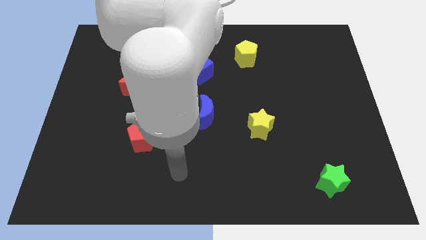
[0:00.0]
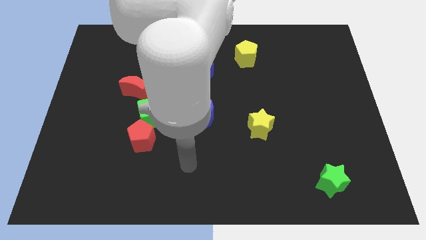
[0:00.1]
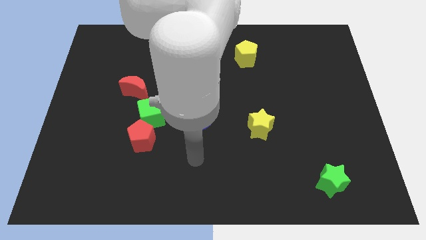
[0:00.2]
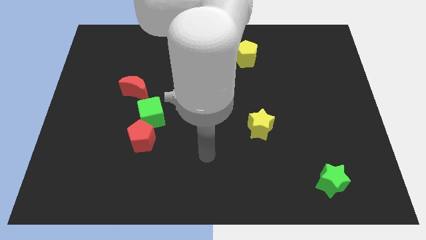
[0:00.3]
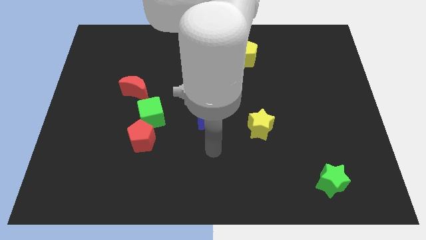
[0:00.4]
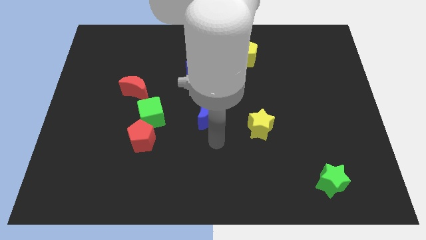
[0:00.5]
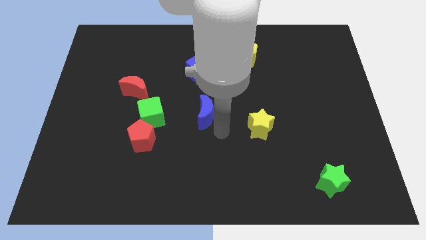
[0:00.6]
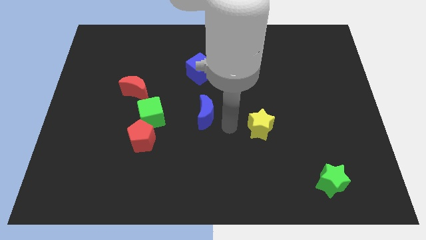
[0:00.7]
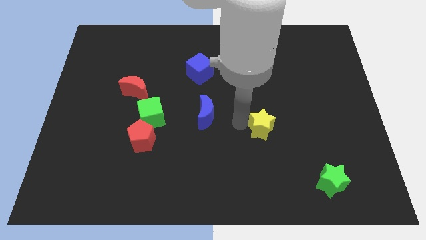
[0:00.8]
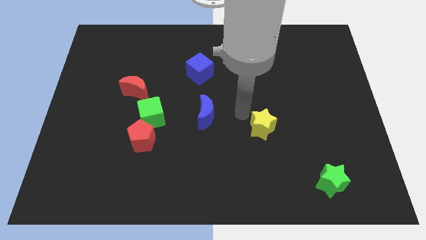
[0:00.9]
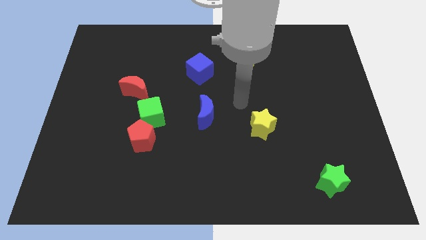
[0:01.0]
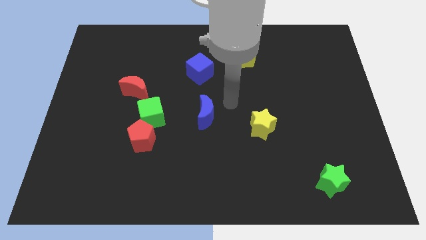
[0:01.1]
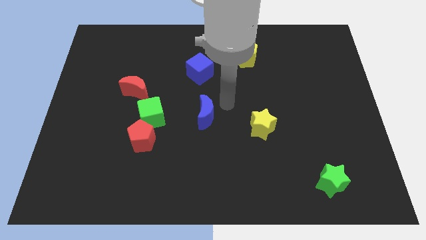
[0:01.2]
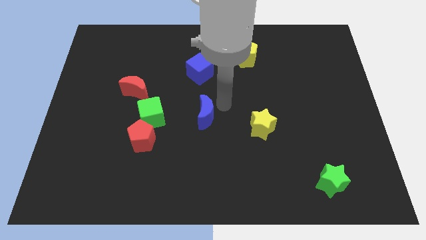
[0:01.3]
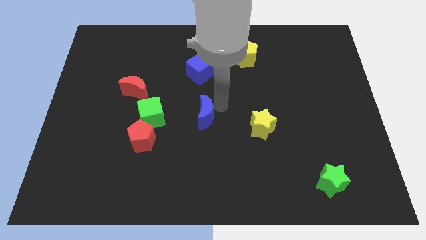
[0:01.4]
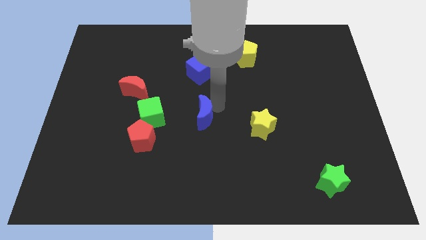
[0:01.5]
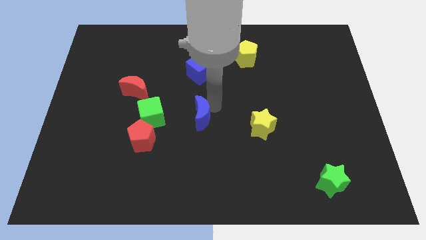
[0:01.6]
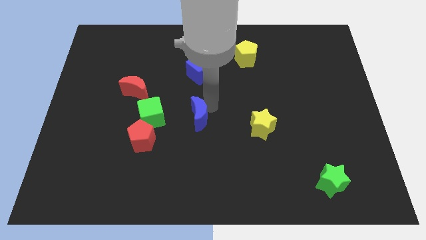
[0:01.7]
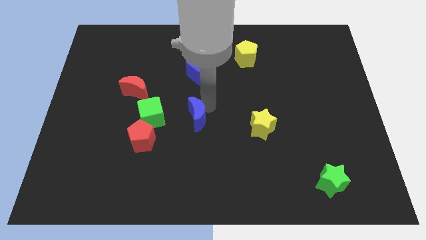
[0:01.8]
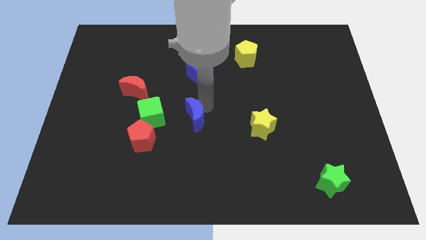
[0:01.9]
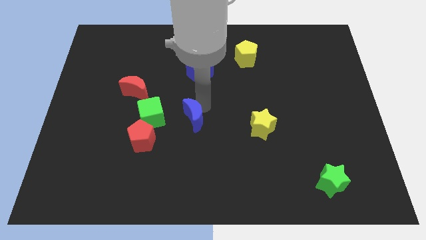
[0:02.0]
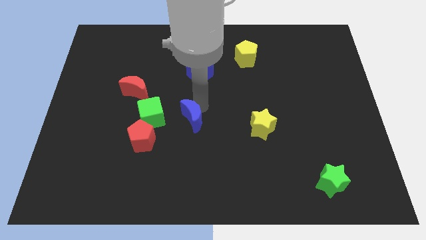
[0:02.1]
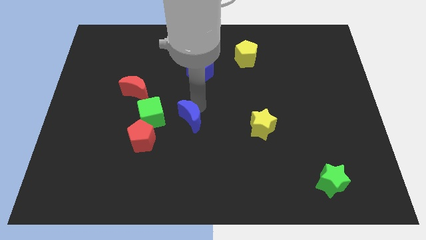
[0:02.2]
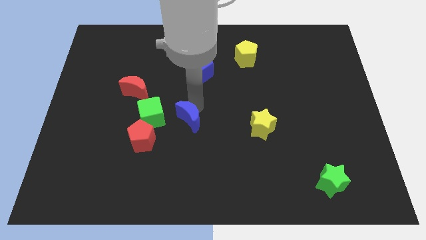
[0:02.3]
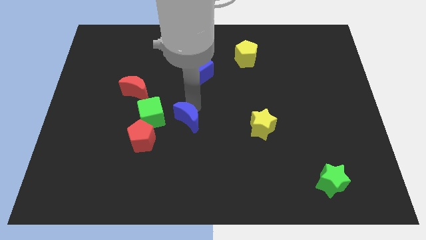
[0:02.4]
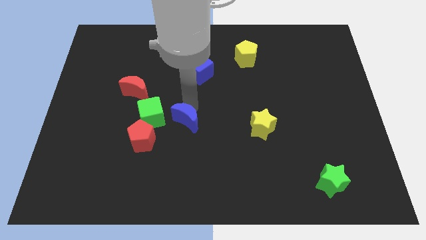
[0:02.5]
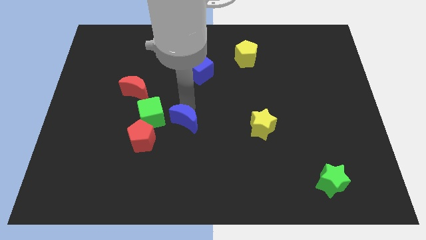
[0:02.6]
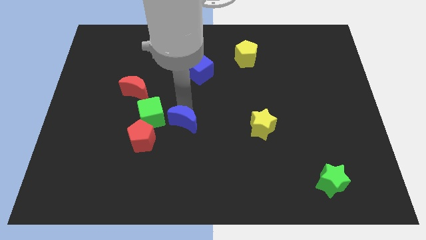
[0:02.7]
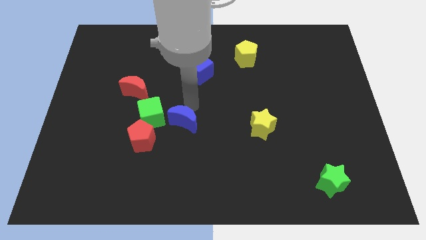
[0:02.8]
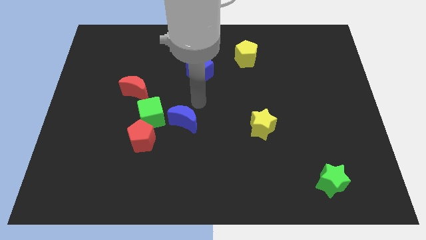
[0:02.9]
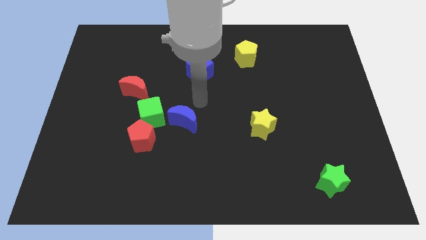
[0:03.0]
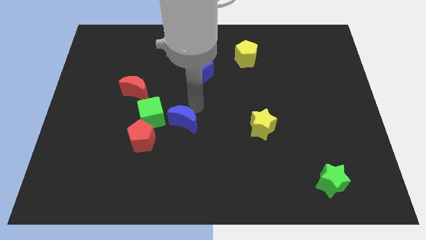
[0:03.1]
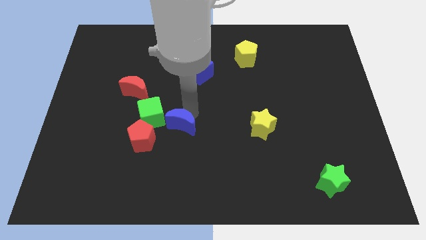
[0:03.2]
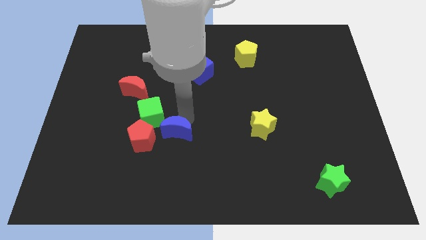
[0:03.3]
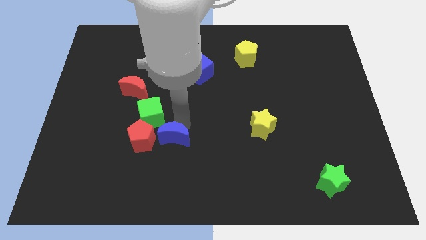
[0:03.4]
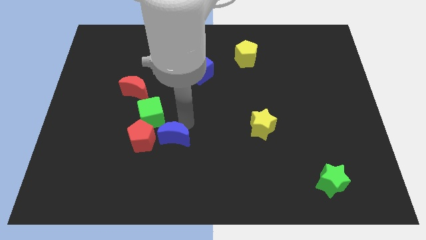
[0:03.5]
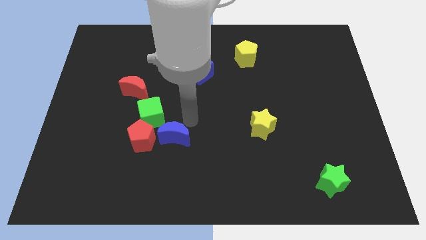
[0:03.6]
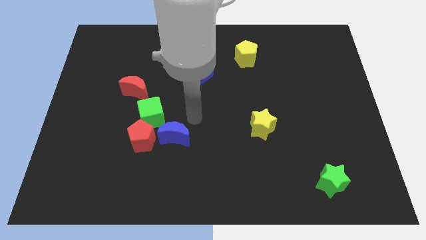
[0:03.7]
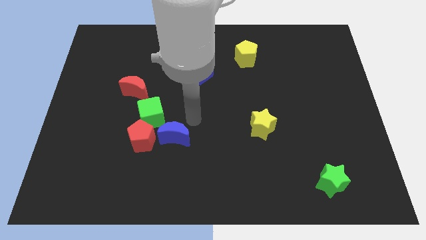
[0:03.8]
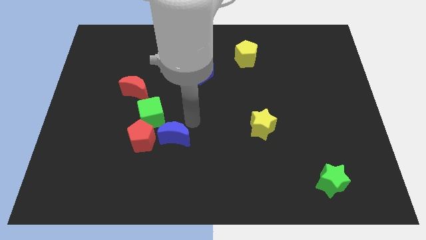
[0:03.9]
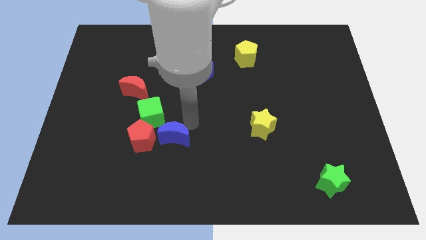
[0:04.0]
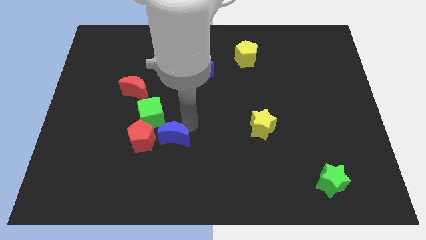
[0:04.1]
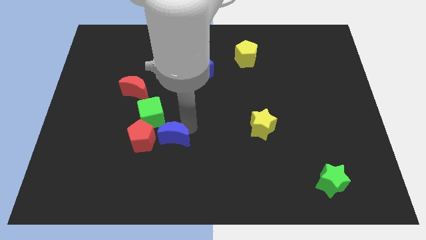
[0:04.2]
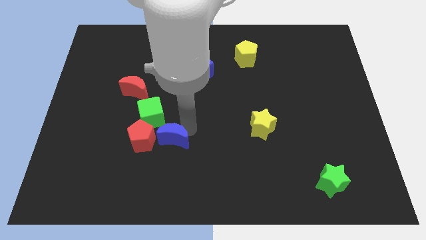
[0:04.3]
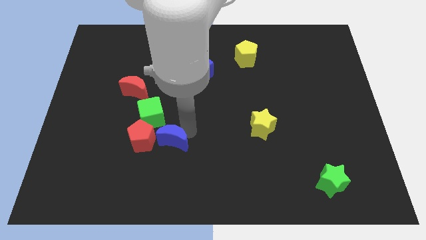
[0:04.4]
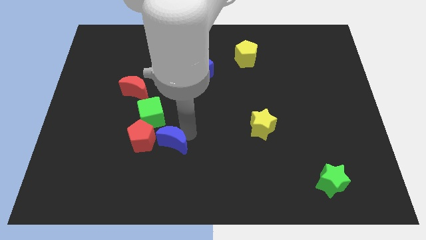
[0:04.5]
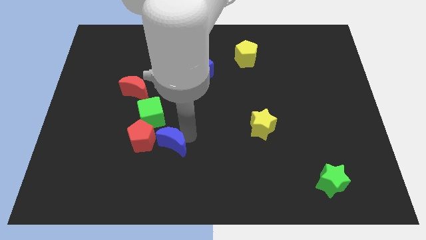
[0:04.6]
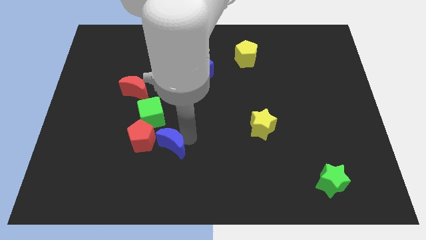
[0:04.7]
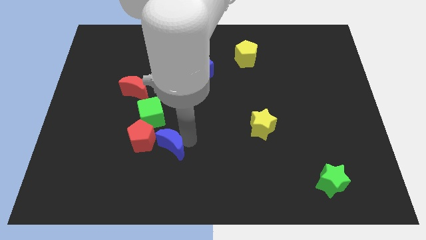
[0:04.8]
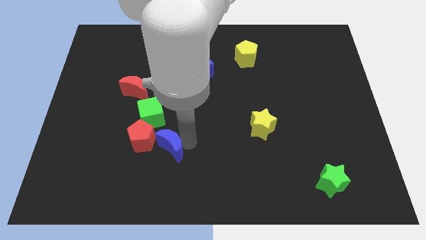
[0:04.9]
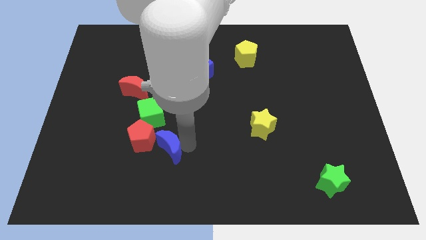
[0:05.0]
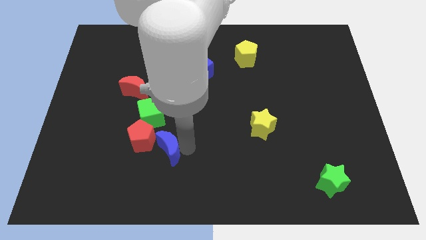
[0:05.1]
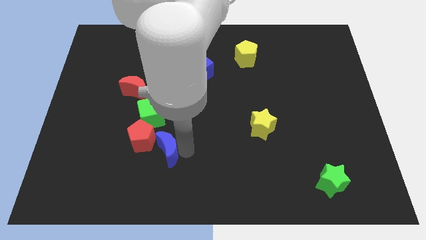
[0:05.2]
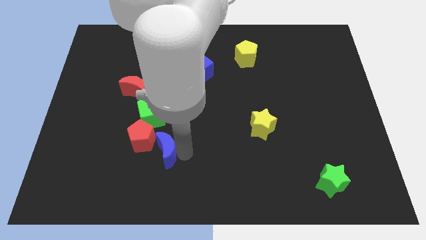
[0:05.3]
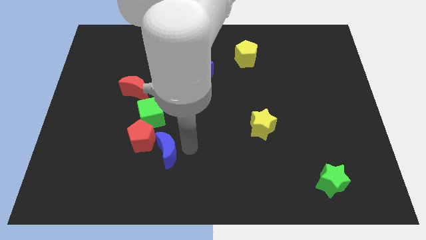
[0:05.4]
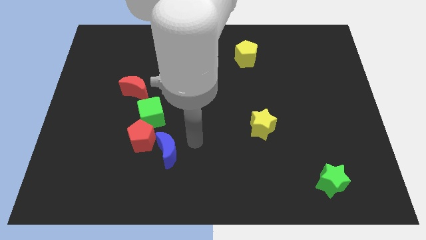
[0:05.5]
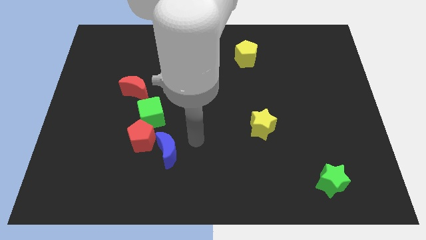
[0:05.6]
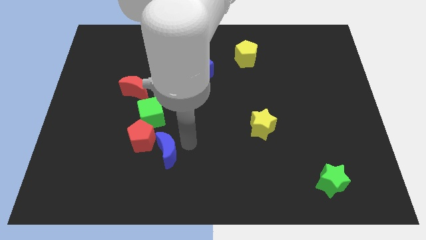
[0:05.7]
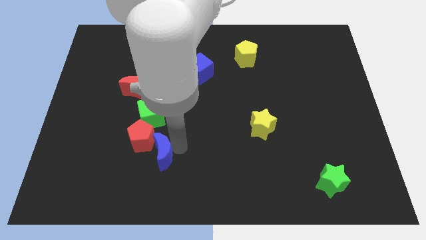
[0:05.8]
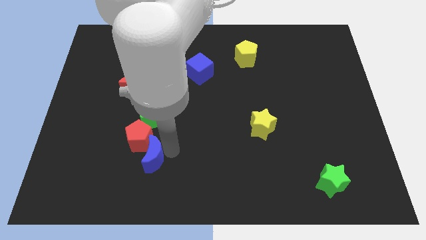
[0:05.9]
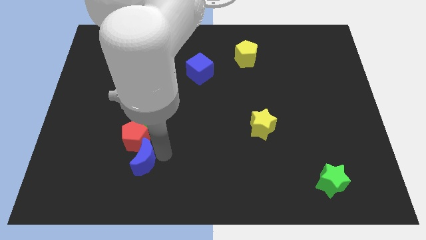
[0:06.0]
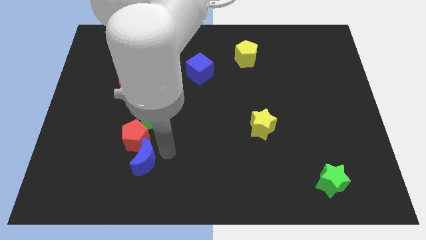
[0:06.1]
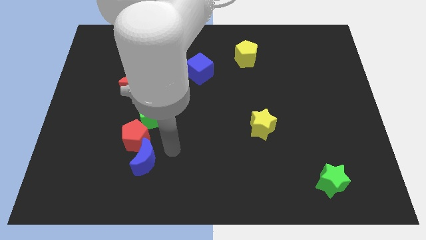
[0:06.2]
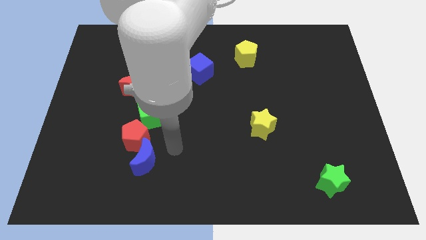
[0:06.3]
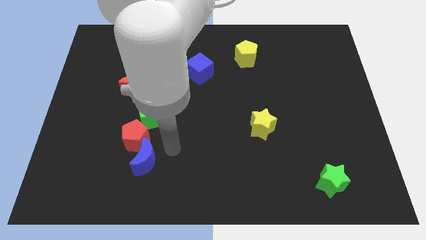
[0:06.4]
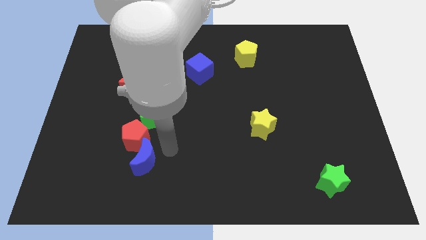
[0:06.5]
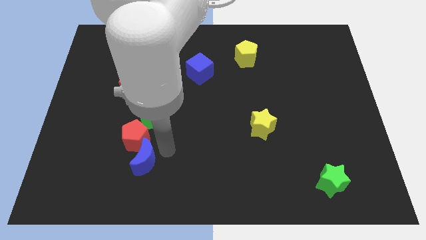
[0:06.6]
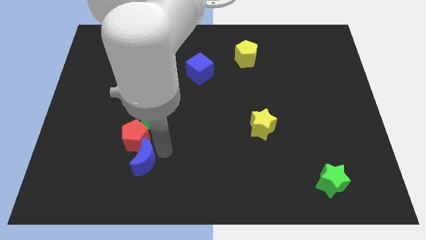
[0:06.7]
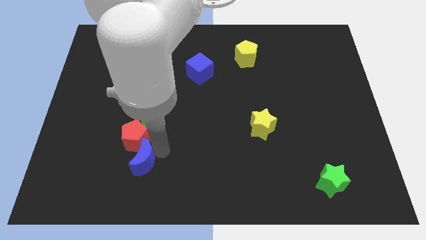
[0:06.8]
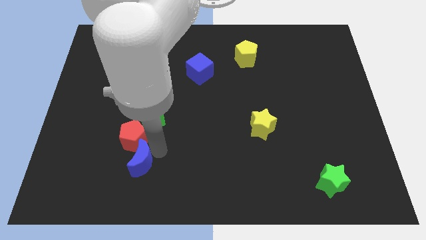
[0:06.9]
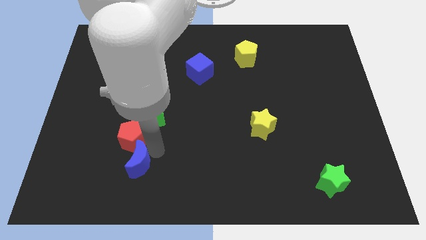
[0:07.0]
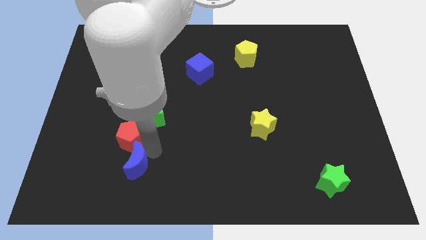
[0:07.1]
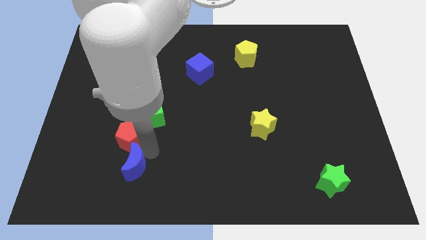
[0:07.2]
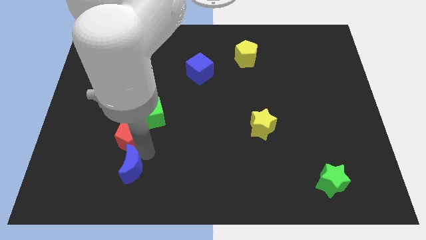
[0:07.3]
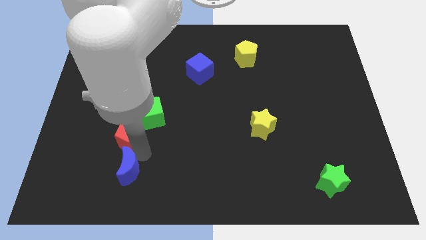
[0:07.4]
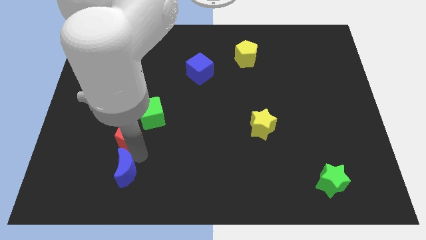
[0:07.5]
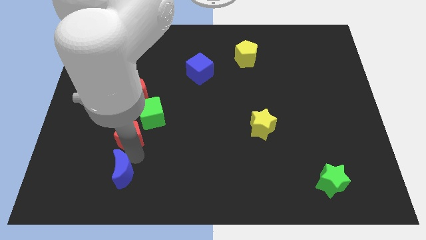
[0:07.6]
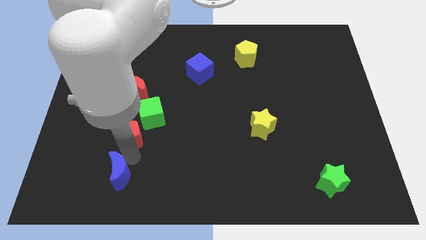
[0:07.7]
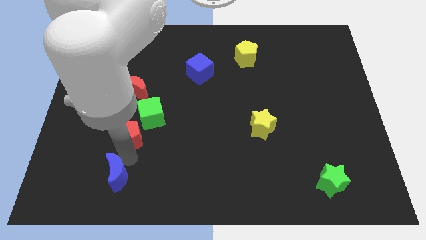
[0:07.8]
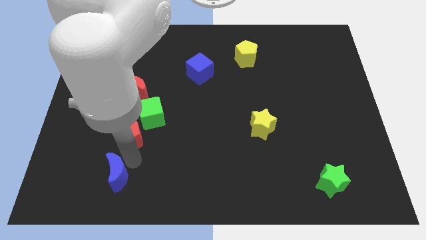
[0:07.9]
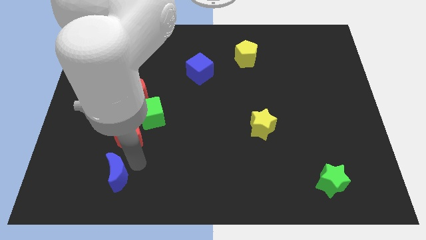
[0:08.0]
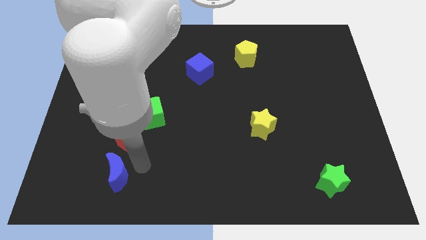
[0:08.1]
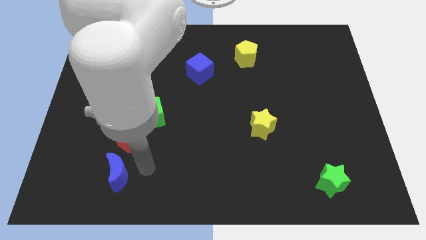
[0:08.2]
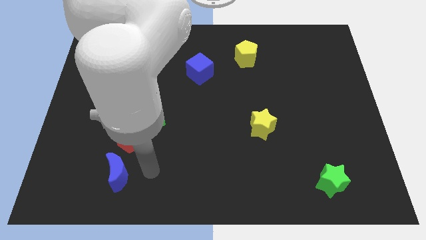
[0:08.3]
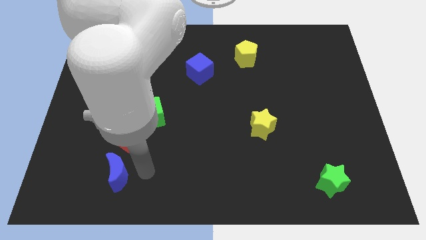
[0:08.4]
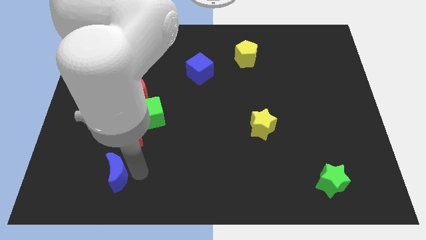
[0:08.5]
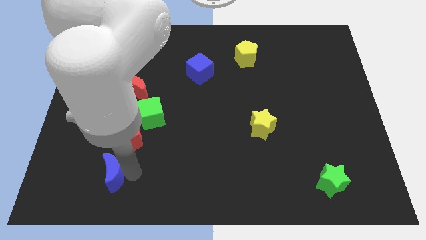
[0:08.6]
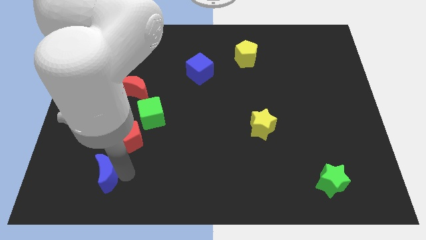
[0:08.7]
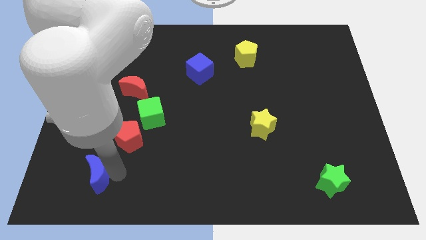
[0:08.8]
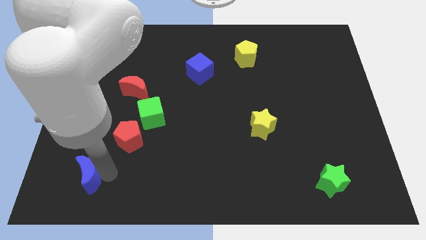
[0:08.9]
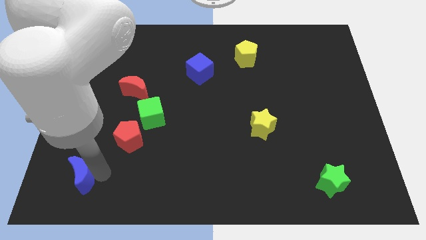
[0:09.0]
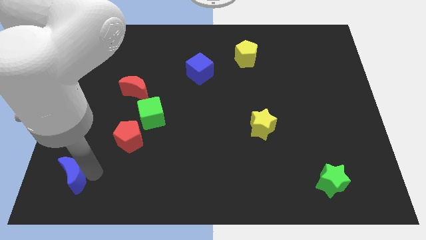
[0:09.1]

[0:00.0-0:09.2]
slide the blue moon to the bottom left of the board
